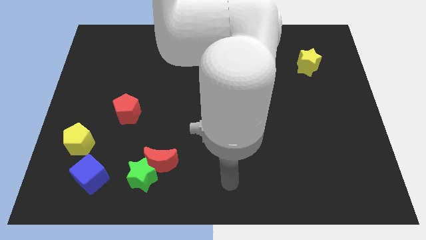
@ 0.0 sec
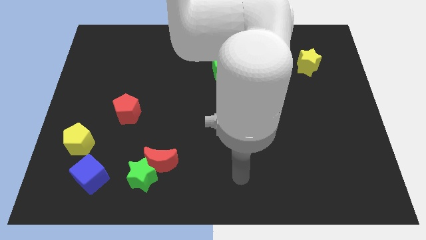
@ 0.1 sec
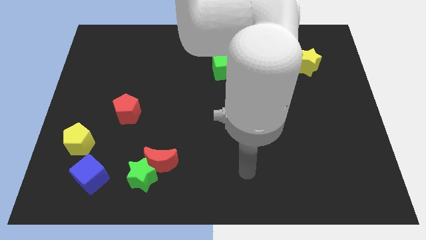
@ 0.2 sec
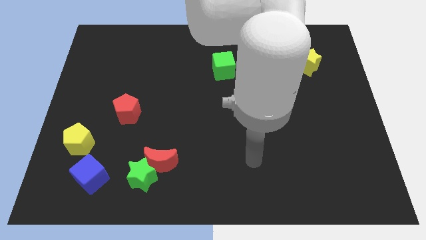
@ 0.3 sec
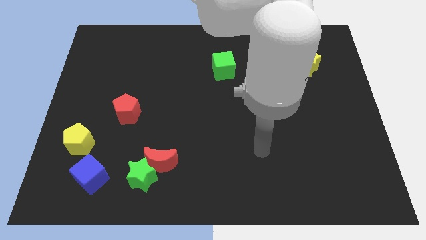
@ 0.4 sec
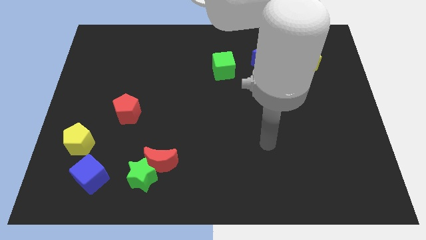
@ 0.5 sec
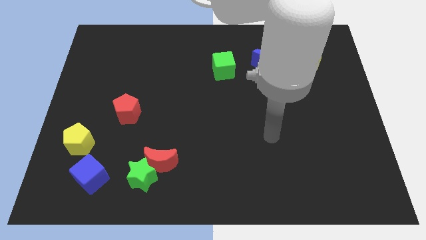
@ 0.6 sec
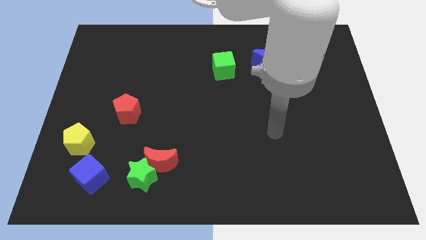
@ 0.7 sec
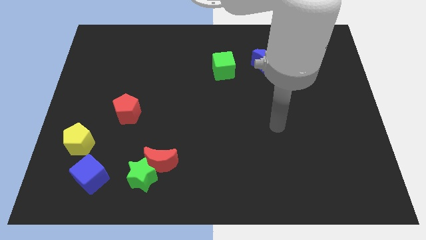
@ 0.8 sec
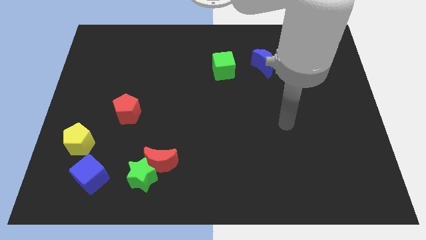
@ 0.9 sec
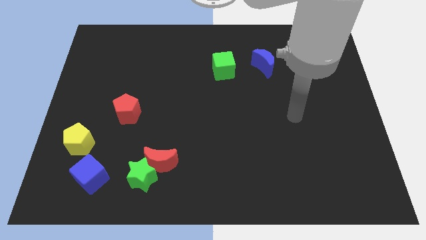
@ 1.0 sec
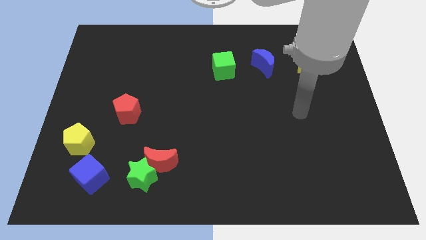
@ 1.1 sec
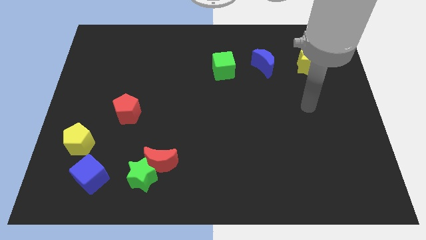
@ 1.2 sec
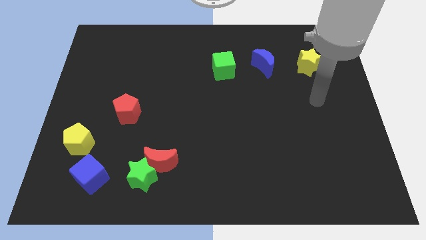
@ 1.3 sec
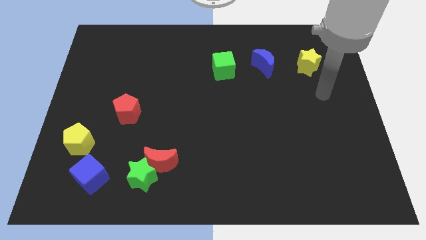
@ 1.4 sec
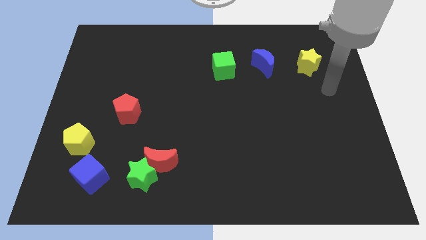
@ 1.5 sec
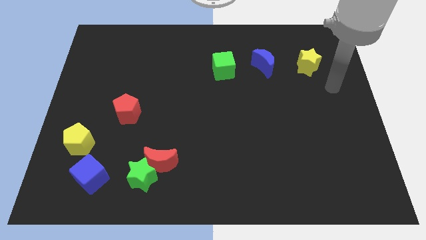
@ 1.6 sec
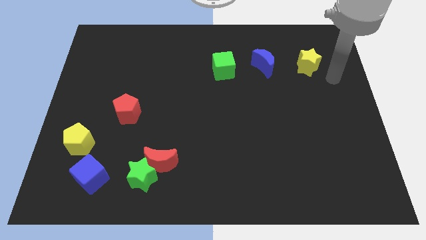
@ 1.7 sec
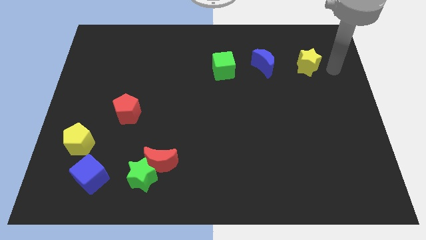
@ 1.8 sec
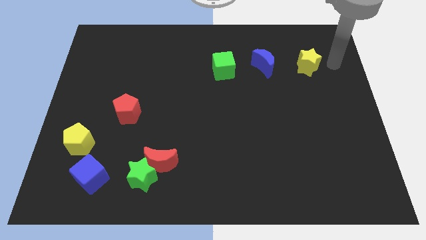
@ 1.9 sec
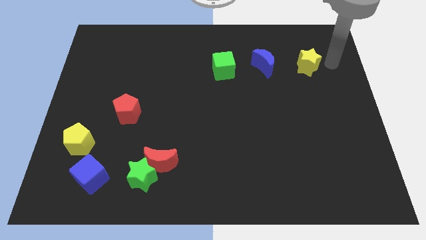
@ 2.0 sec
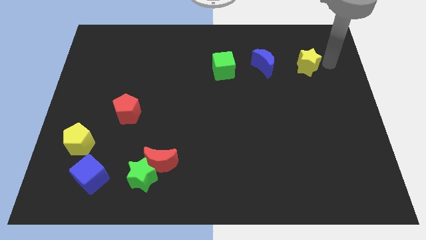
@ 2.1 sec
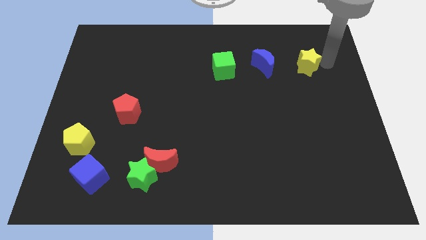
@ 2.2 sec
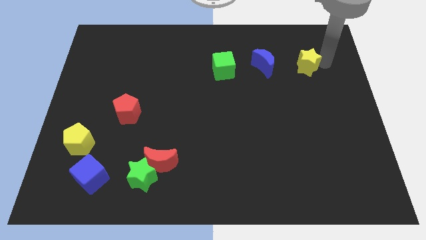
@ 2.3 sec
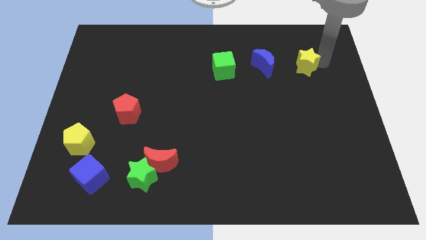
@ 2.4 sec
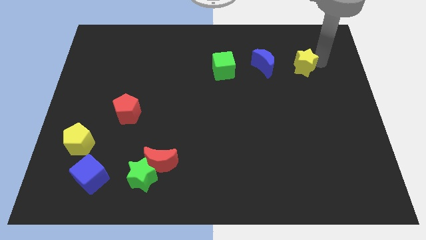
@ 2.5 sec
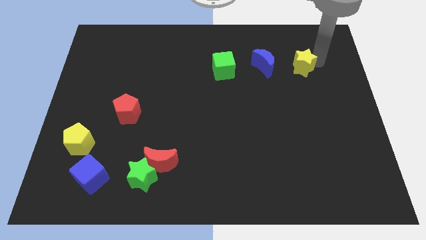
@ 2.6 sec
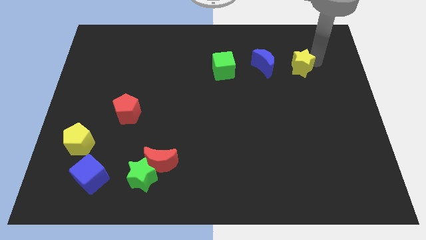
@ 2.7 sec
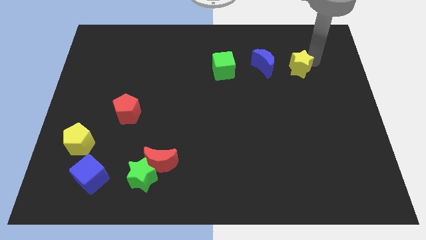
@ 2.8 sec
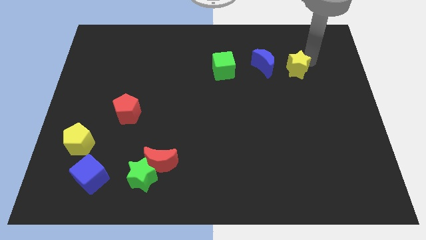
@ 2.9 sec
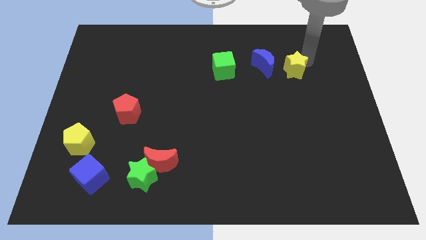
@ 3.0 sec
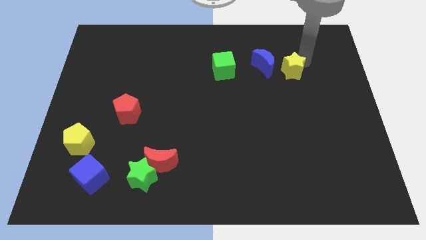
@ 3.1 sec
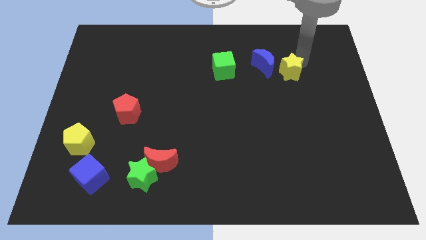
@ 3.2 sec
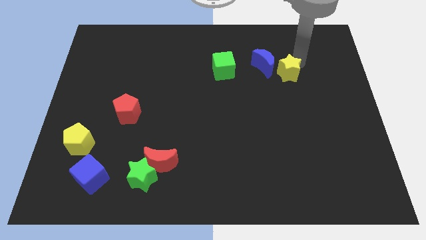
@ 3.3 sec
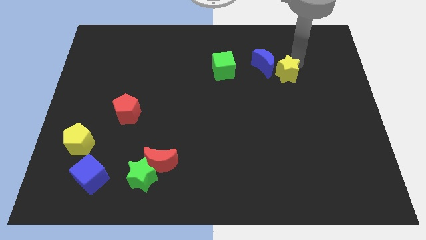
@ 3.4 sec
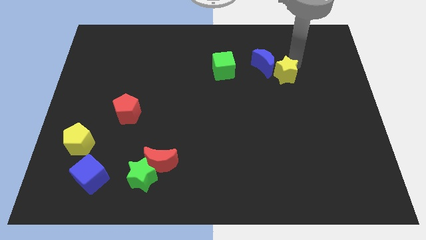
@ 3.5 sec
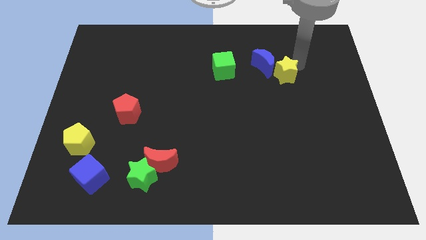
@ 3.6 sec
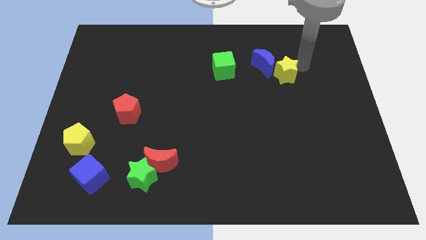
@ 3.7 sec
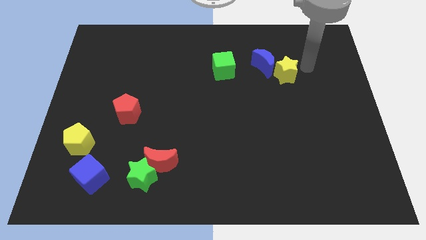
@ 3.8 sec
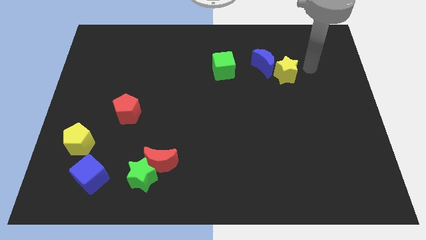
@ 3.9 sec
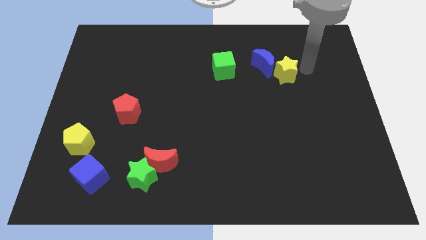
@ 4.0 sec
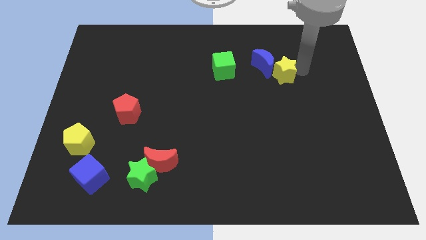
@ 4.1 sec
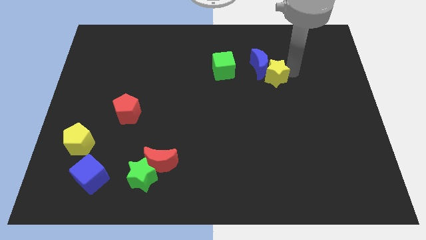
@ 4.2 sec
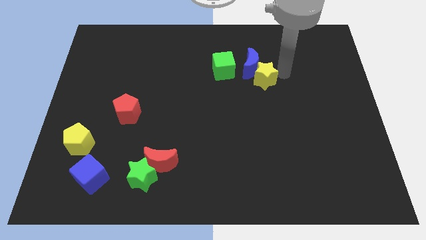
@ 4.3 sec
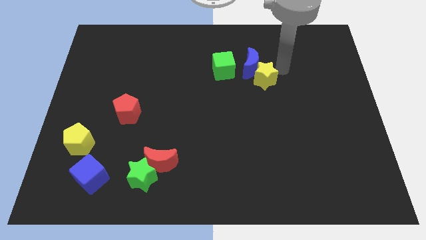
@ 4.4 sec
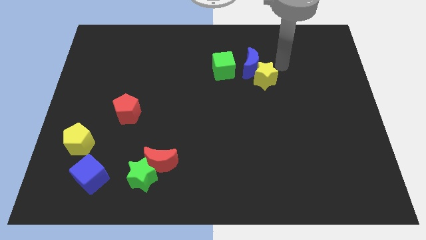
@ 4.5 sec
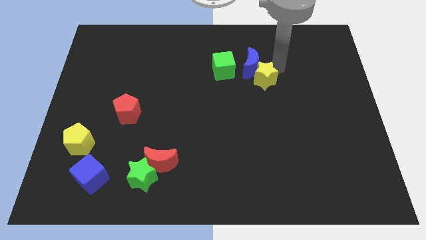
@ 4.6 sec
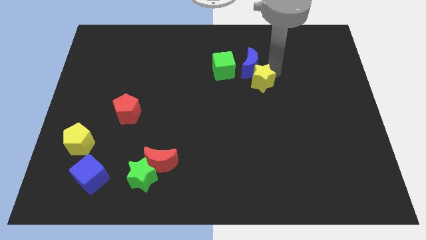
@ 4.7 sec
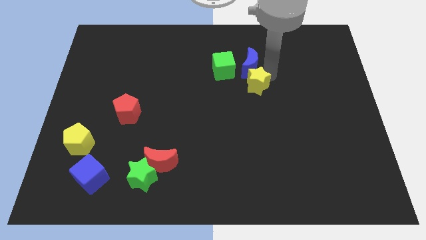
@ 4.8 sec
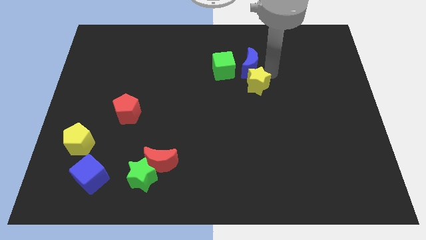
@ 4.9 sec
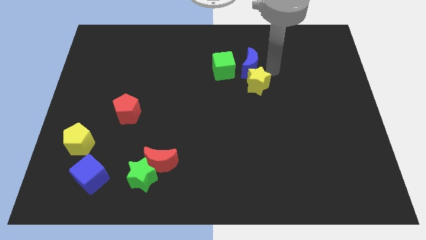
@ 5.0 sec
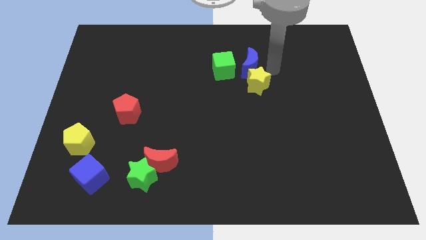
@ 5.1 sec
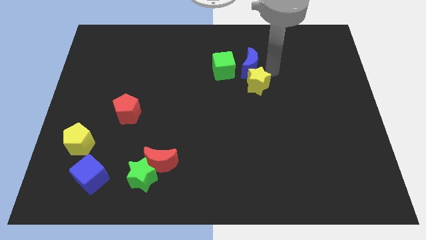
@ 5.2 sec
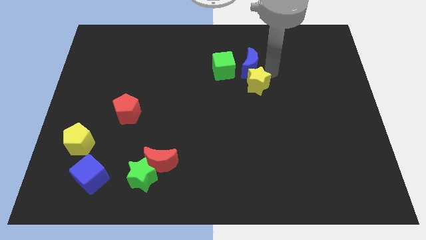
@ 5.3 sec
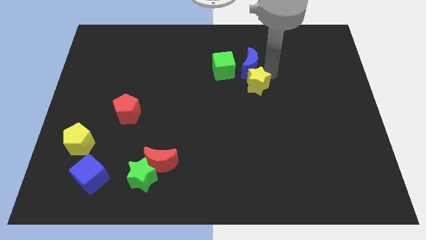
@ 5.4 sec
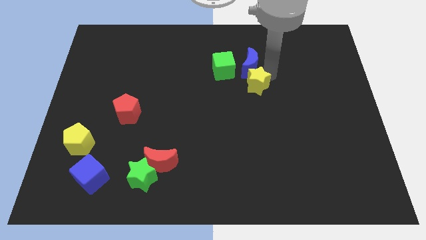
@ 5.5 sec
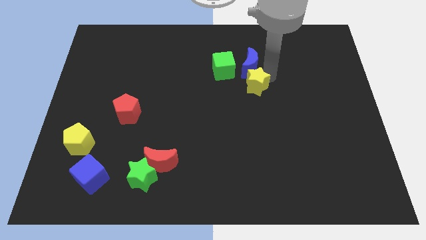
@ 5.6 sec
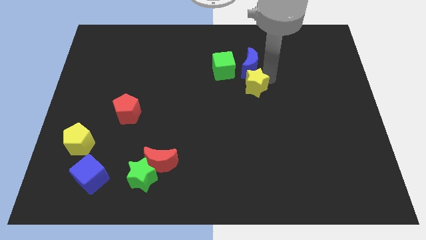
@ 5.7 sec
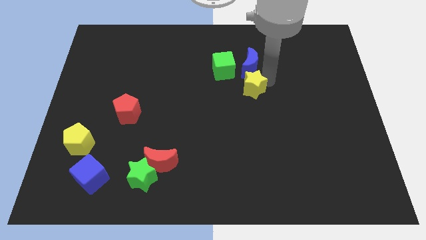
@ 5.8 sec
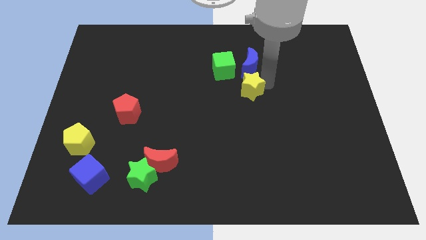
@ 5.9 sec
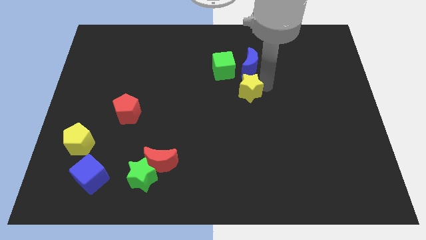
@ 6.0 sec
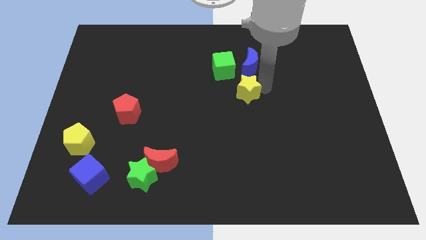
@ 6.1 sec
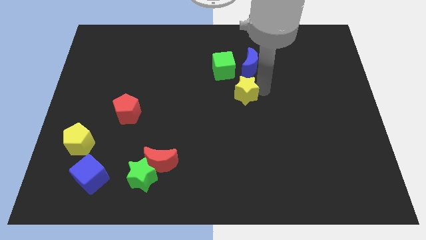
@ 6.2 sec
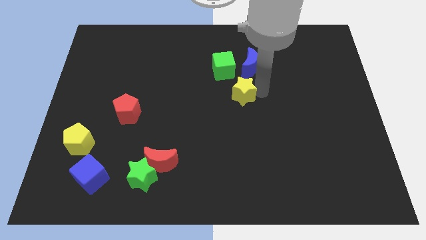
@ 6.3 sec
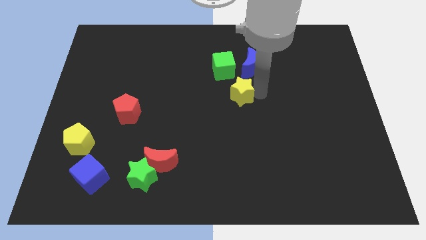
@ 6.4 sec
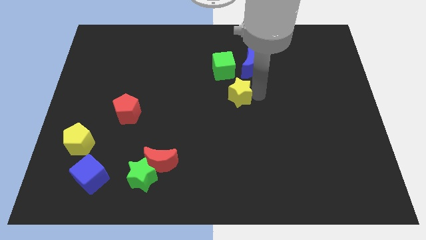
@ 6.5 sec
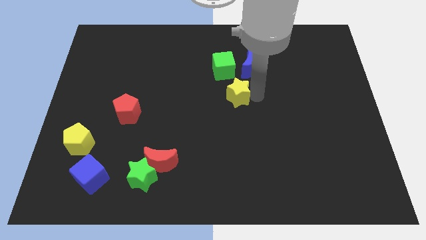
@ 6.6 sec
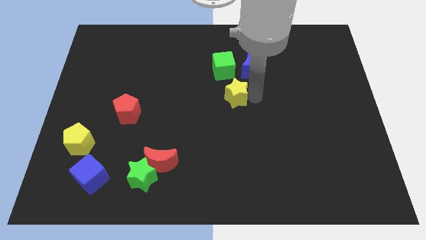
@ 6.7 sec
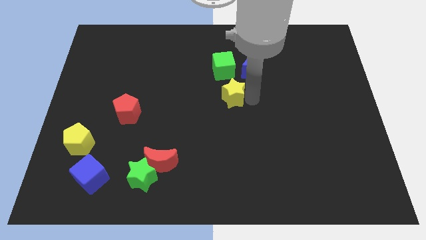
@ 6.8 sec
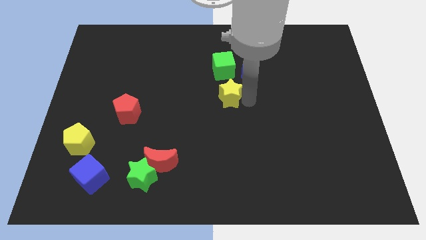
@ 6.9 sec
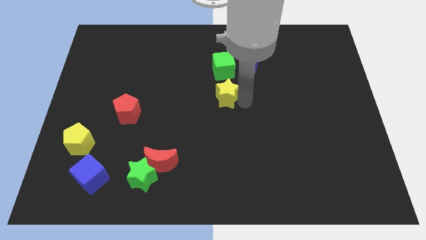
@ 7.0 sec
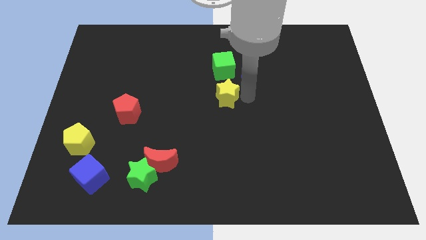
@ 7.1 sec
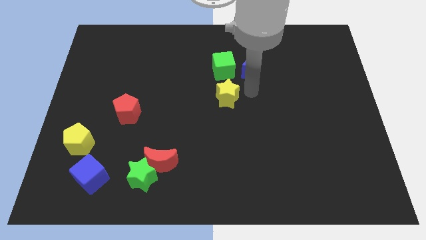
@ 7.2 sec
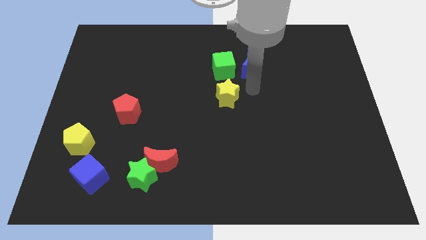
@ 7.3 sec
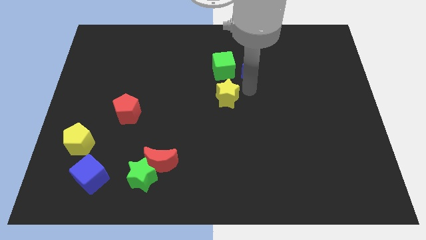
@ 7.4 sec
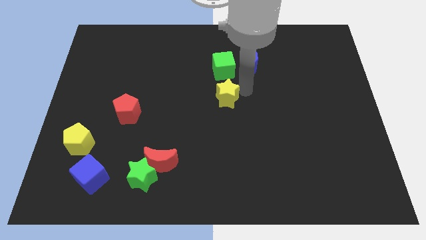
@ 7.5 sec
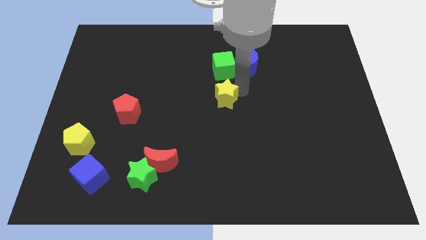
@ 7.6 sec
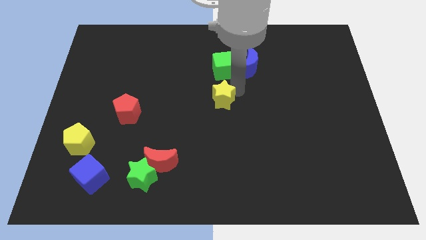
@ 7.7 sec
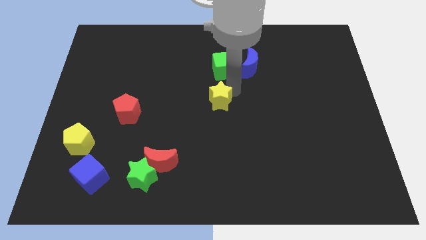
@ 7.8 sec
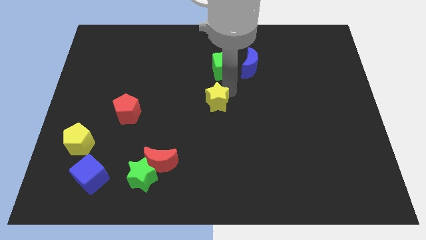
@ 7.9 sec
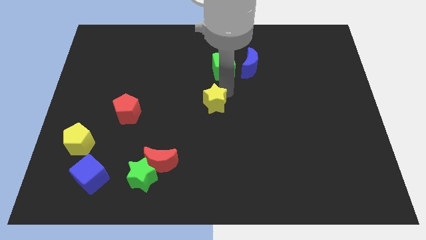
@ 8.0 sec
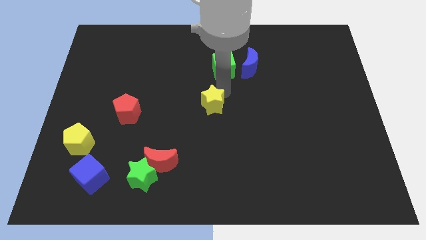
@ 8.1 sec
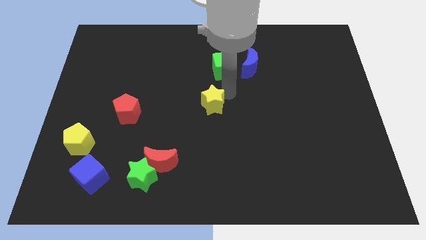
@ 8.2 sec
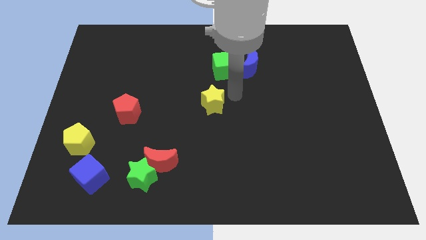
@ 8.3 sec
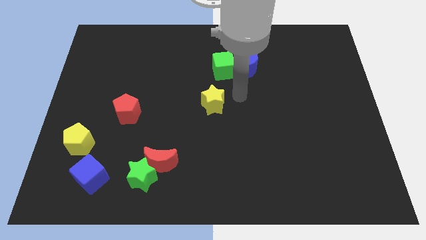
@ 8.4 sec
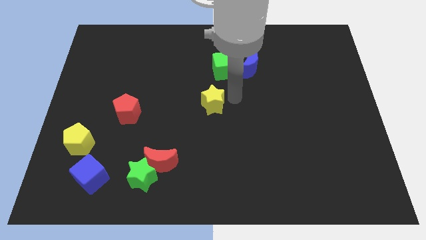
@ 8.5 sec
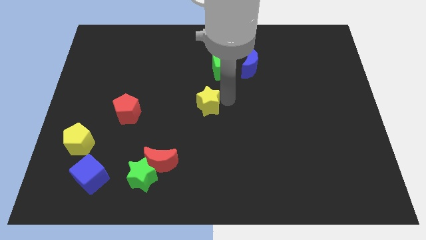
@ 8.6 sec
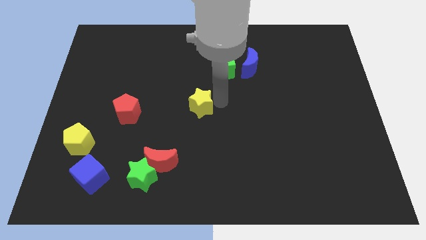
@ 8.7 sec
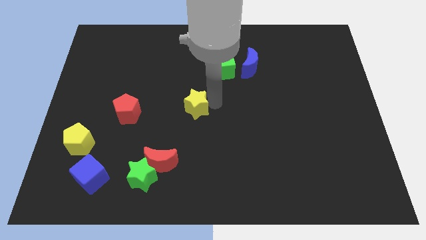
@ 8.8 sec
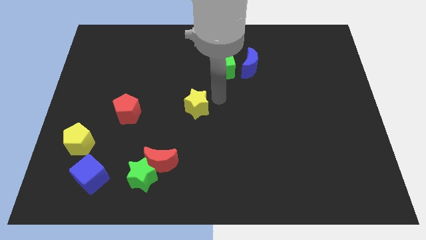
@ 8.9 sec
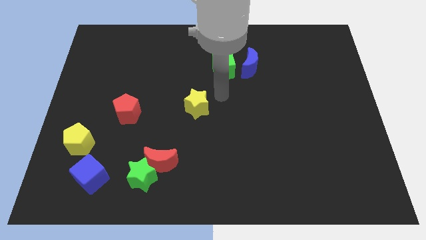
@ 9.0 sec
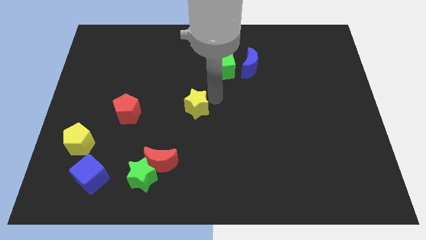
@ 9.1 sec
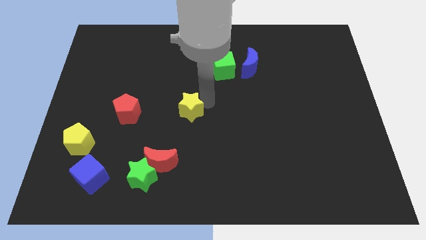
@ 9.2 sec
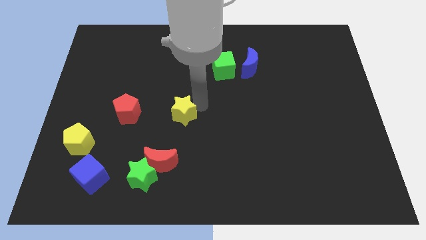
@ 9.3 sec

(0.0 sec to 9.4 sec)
put the yellow star to the top of the red moon
